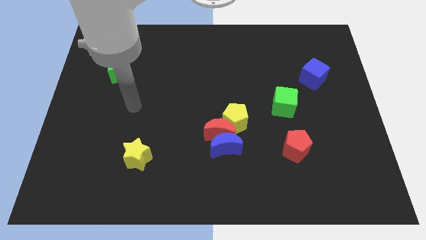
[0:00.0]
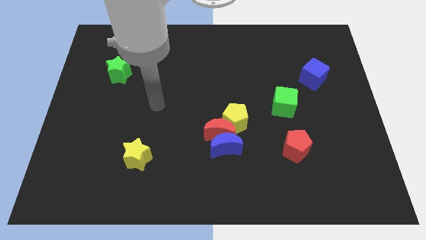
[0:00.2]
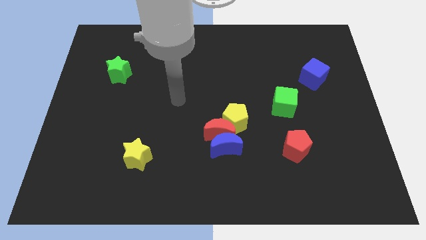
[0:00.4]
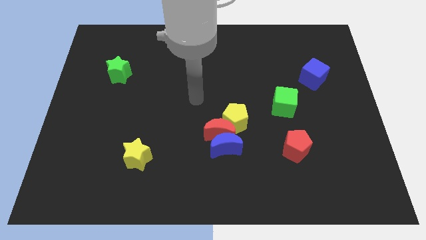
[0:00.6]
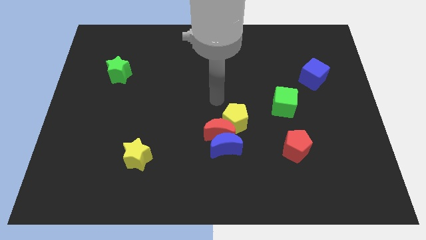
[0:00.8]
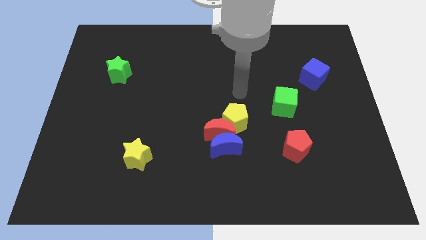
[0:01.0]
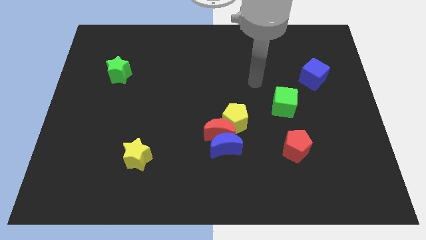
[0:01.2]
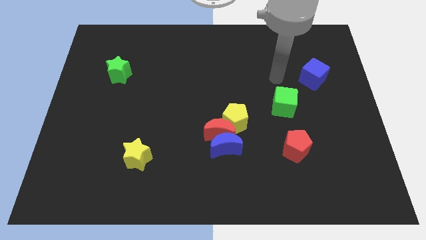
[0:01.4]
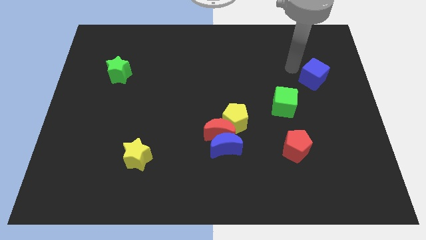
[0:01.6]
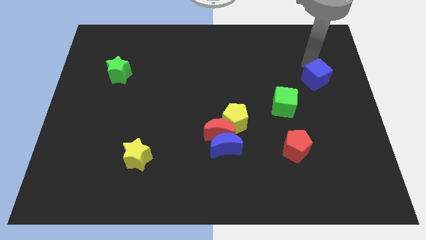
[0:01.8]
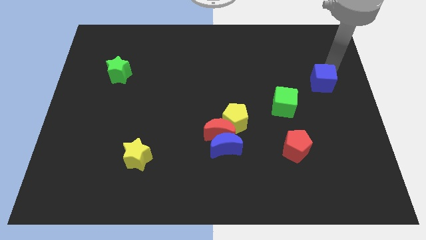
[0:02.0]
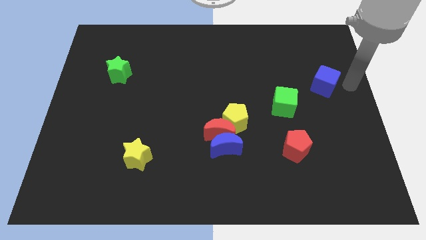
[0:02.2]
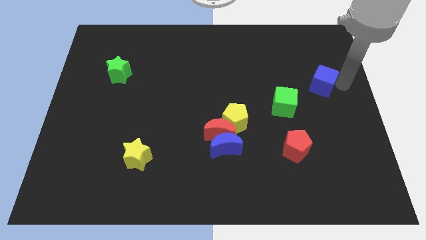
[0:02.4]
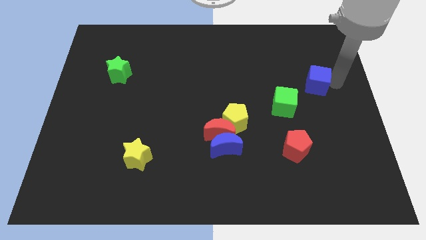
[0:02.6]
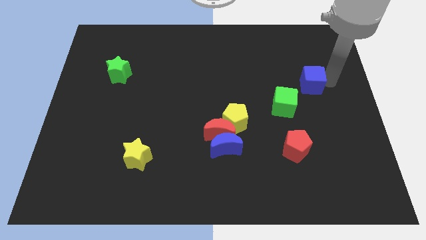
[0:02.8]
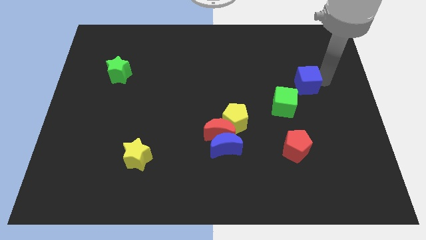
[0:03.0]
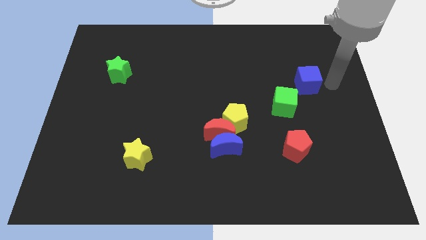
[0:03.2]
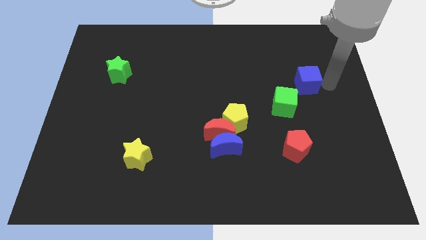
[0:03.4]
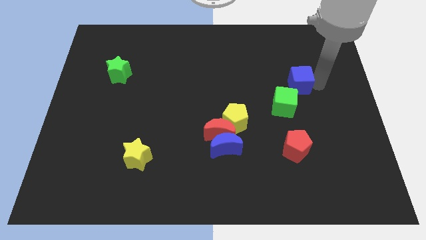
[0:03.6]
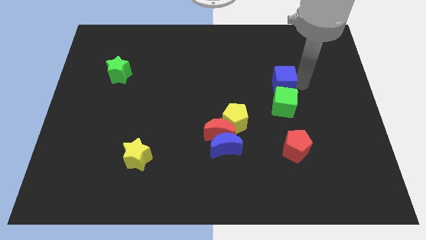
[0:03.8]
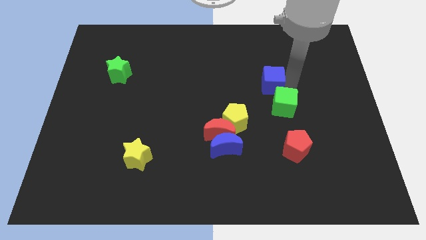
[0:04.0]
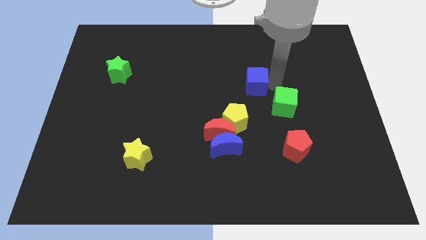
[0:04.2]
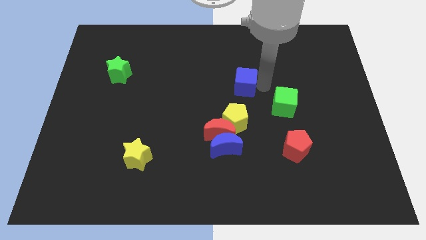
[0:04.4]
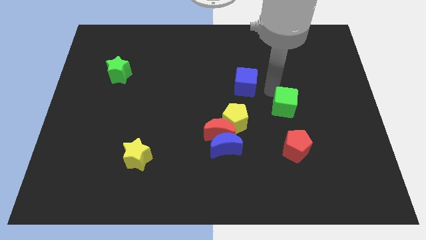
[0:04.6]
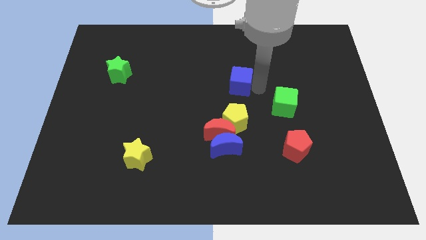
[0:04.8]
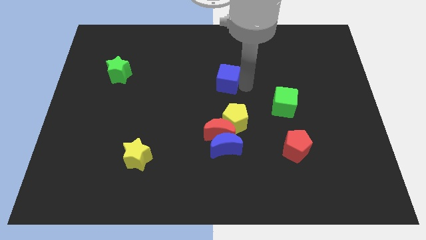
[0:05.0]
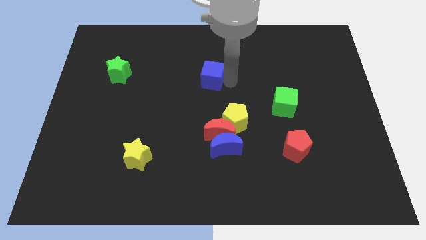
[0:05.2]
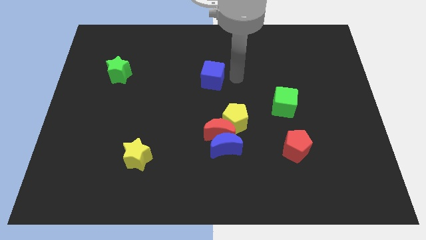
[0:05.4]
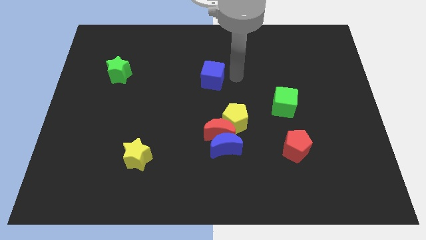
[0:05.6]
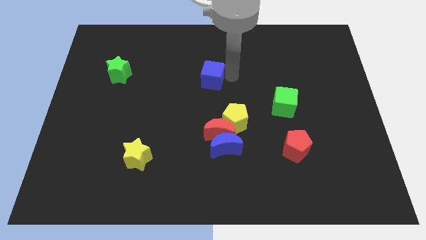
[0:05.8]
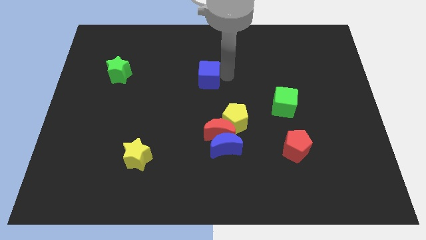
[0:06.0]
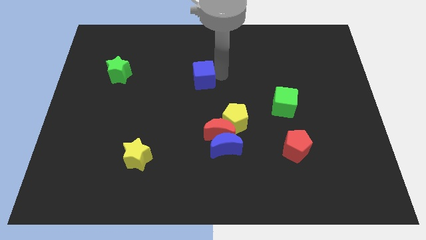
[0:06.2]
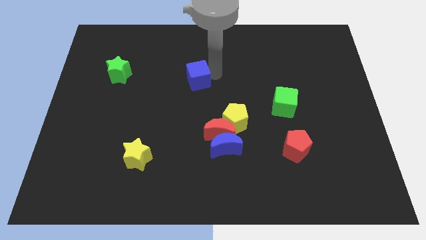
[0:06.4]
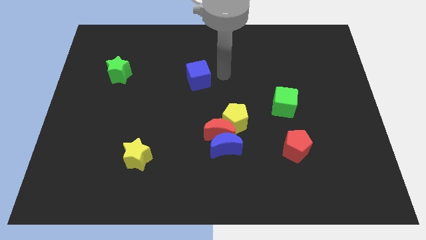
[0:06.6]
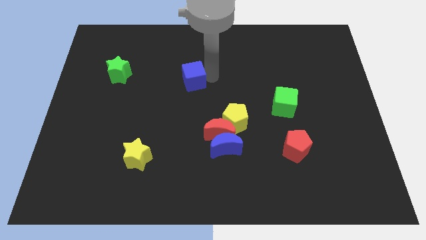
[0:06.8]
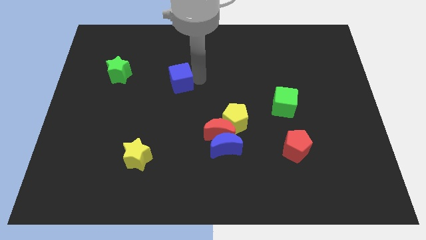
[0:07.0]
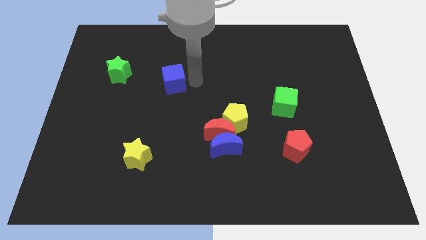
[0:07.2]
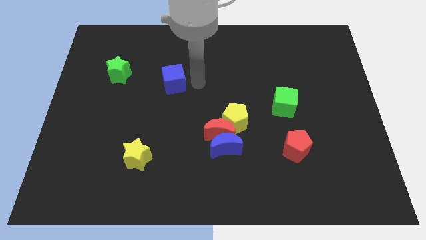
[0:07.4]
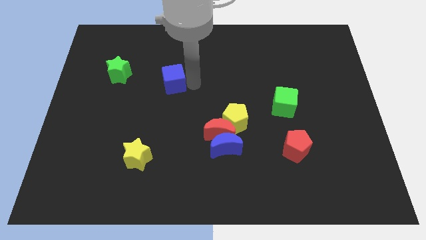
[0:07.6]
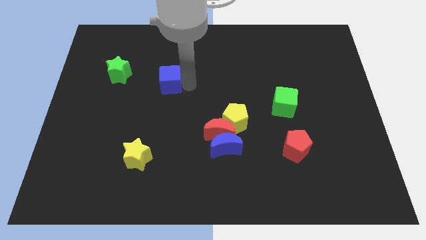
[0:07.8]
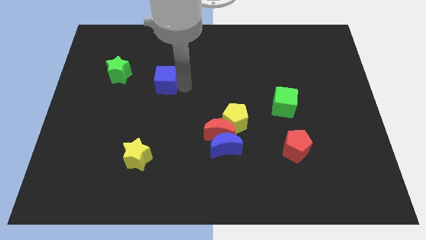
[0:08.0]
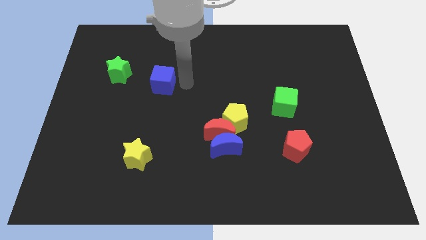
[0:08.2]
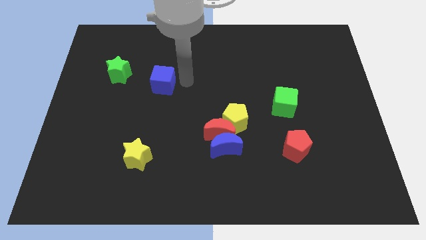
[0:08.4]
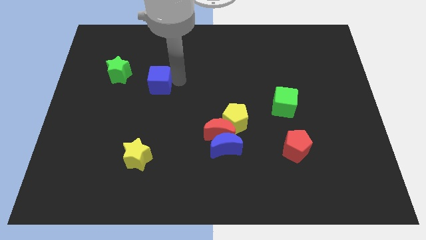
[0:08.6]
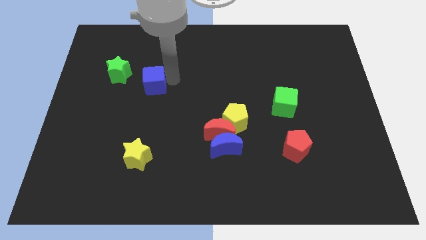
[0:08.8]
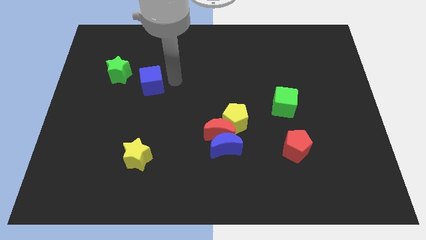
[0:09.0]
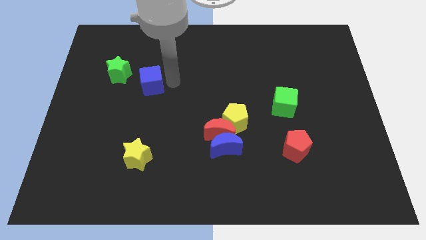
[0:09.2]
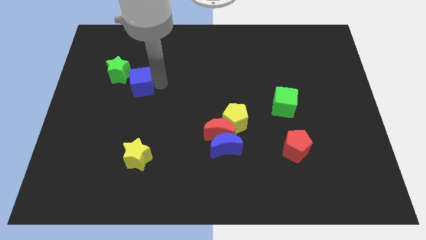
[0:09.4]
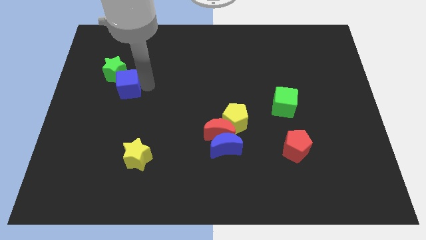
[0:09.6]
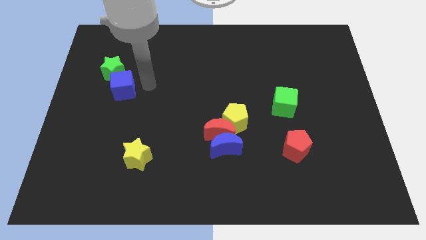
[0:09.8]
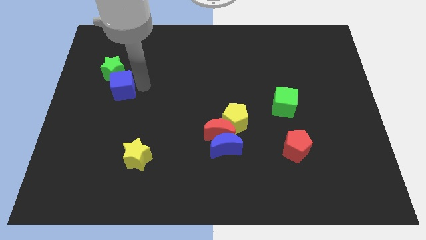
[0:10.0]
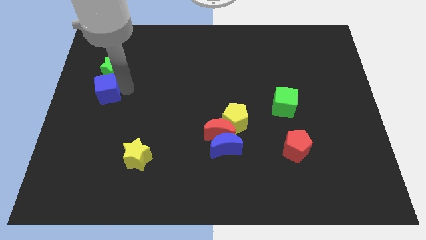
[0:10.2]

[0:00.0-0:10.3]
slide the blue cube to the left side of the board

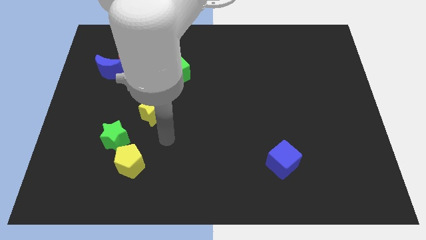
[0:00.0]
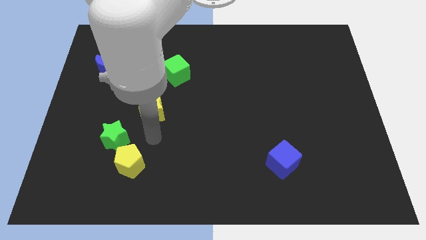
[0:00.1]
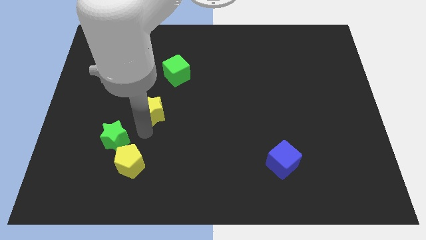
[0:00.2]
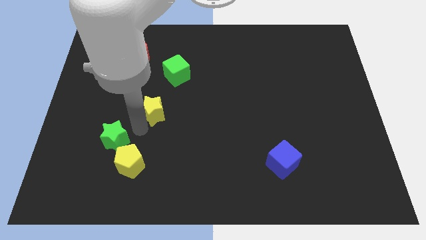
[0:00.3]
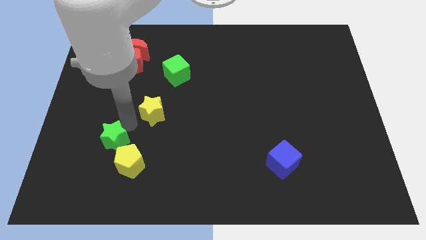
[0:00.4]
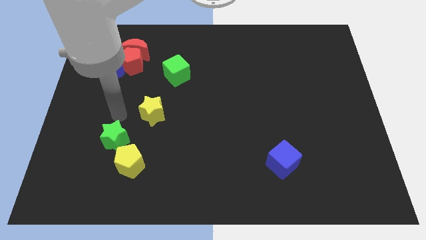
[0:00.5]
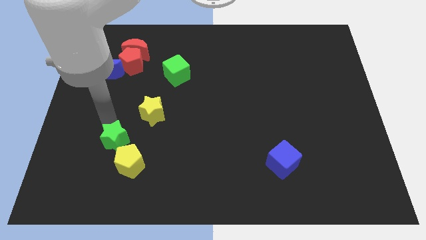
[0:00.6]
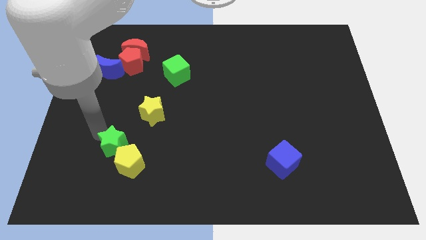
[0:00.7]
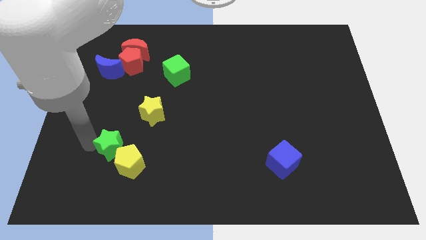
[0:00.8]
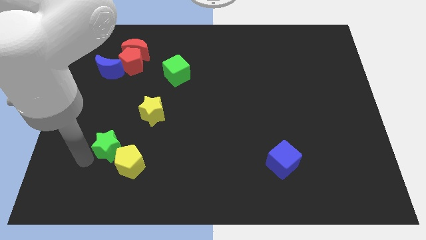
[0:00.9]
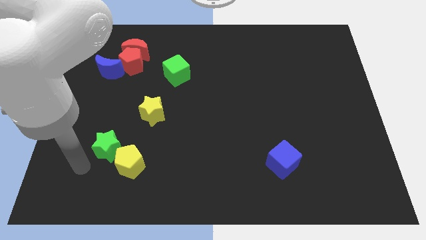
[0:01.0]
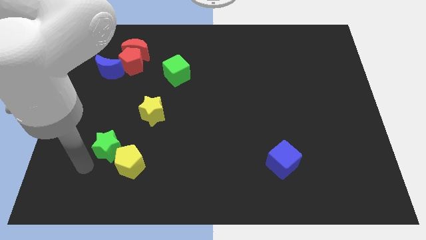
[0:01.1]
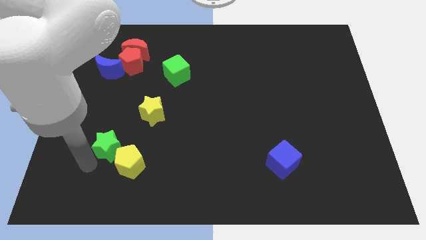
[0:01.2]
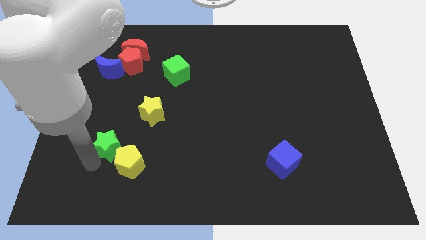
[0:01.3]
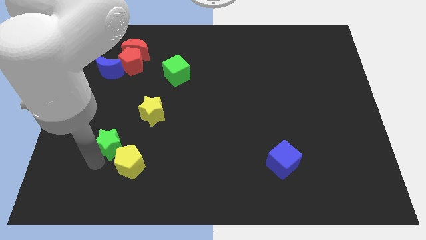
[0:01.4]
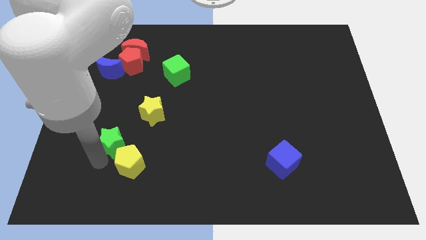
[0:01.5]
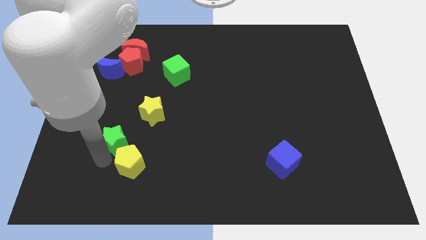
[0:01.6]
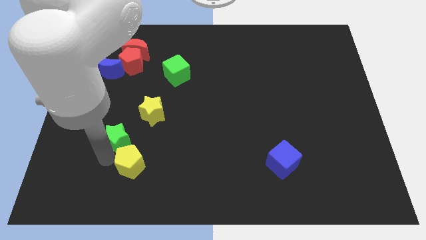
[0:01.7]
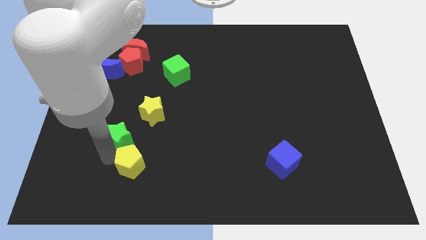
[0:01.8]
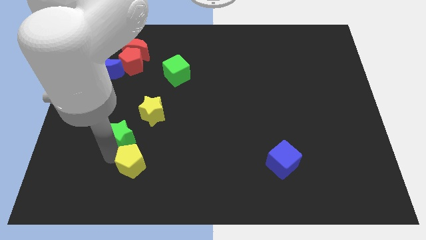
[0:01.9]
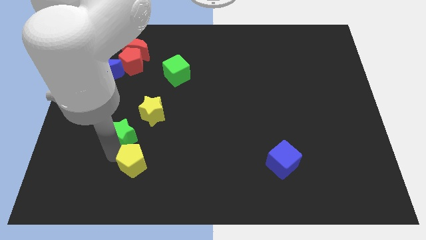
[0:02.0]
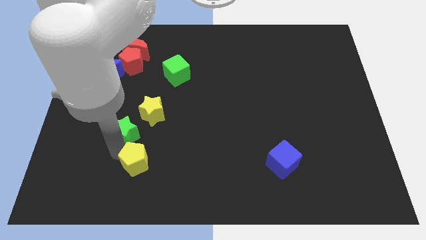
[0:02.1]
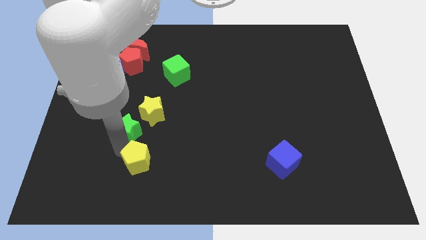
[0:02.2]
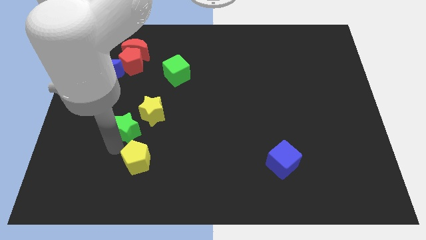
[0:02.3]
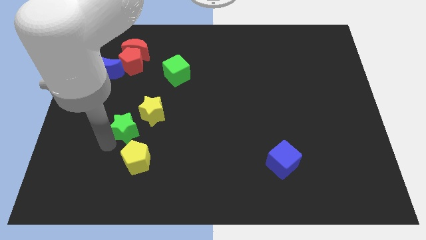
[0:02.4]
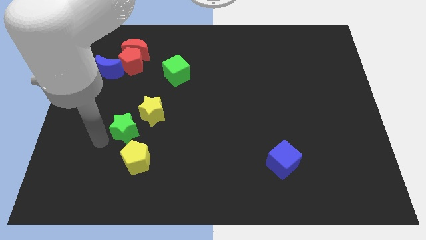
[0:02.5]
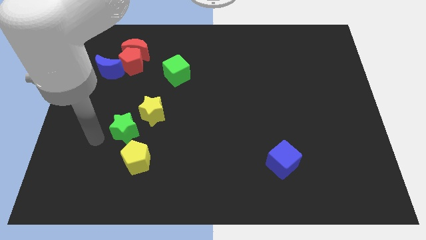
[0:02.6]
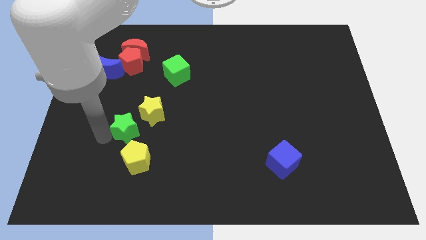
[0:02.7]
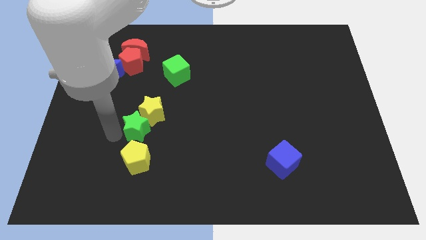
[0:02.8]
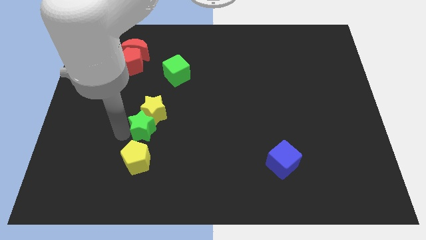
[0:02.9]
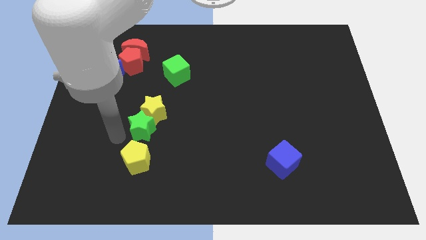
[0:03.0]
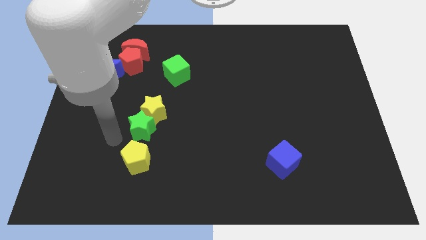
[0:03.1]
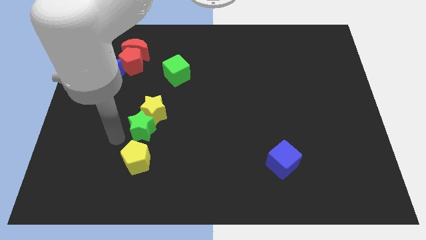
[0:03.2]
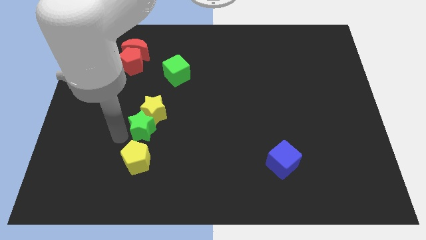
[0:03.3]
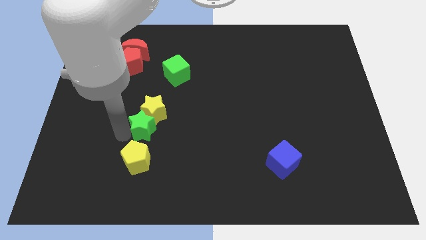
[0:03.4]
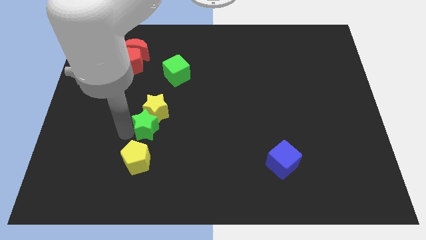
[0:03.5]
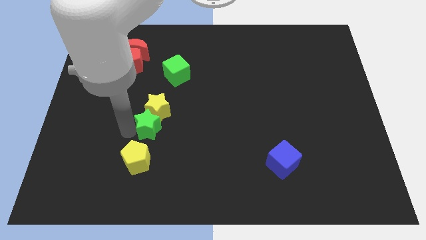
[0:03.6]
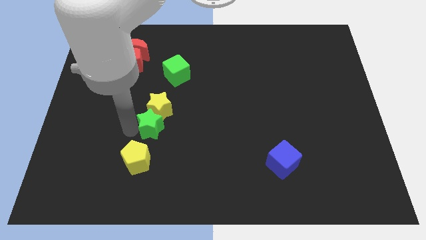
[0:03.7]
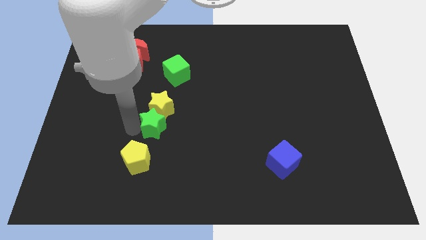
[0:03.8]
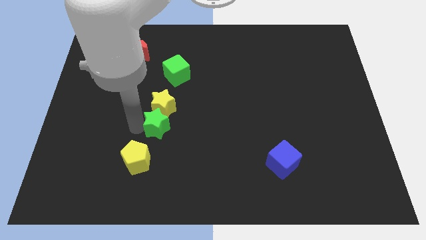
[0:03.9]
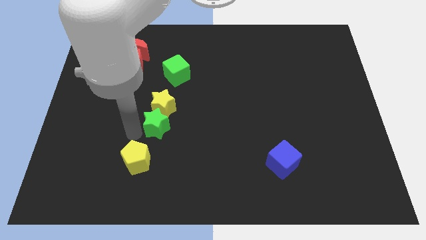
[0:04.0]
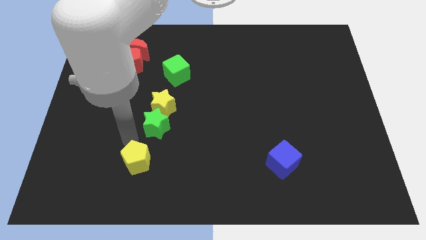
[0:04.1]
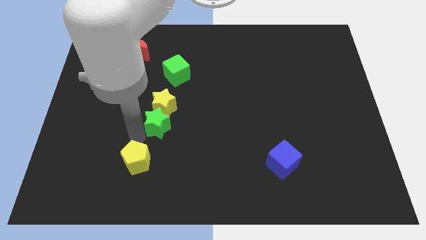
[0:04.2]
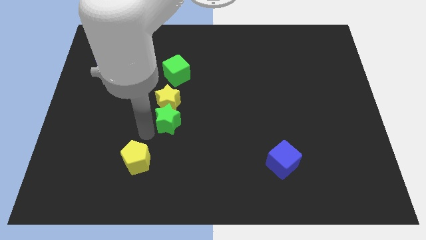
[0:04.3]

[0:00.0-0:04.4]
move the green star to the middle of the board
